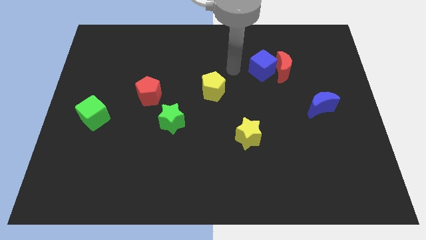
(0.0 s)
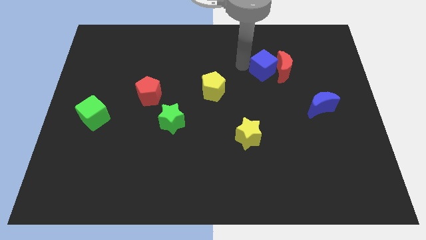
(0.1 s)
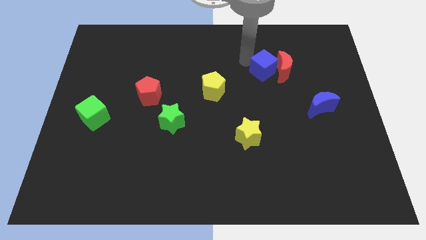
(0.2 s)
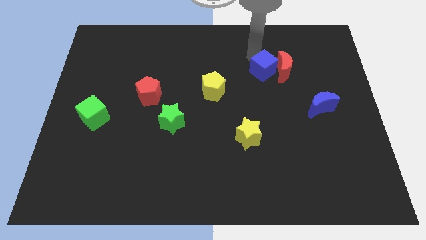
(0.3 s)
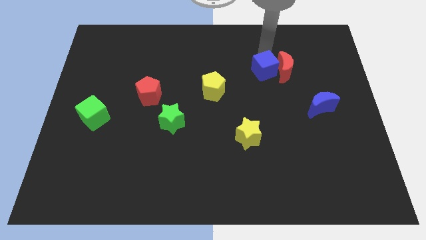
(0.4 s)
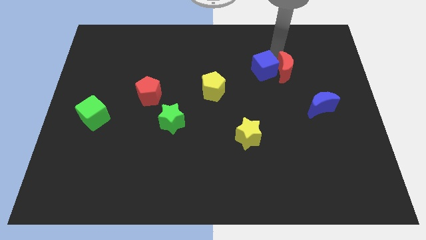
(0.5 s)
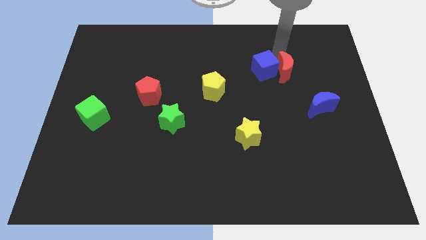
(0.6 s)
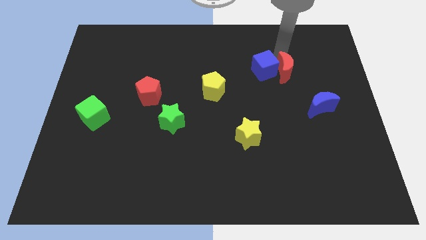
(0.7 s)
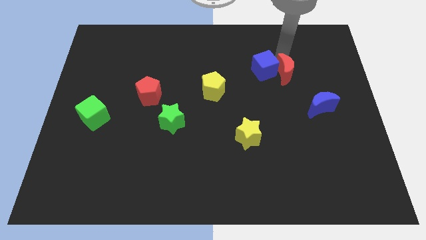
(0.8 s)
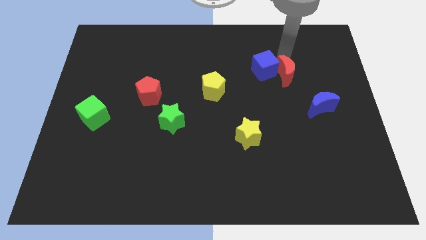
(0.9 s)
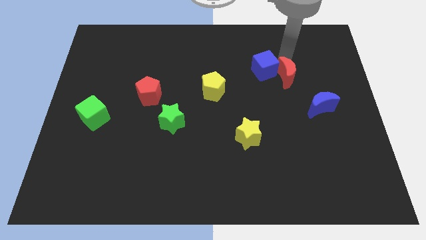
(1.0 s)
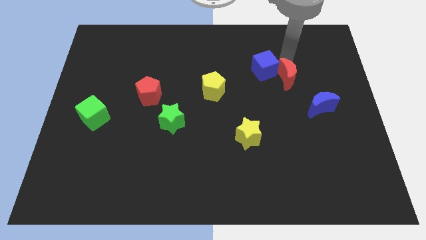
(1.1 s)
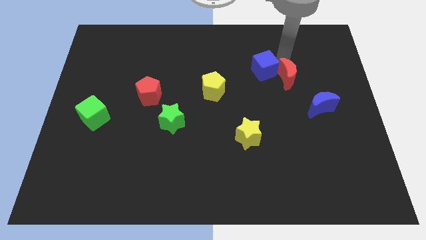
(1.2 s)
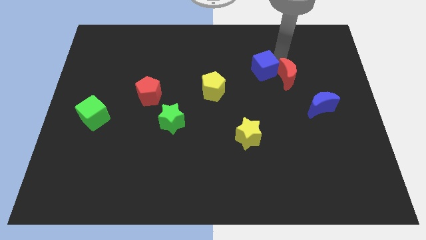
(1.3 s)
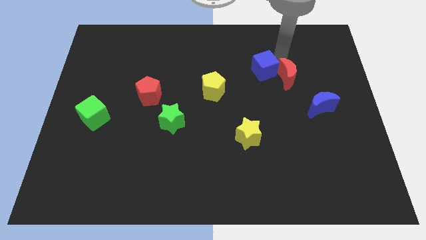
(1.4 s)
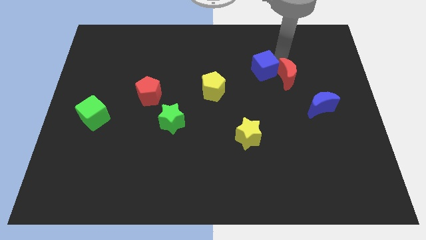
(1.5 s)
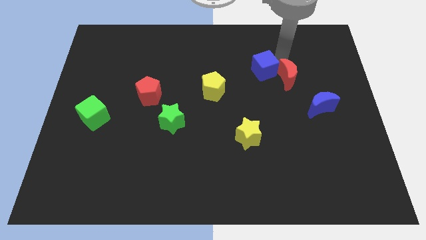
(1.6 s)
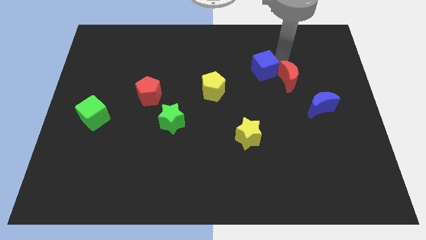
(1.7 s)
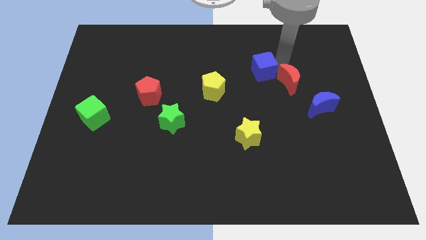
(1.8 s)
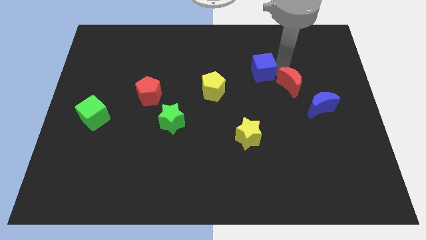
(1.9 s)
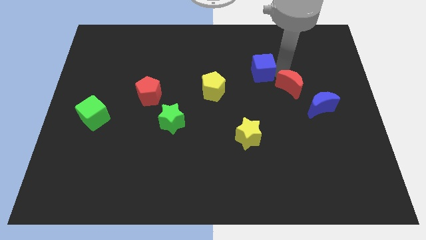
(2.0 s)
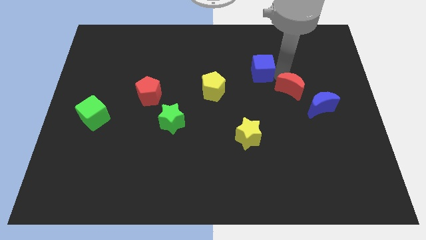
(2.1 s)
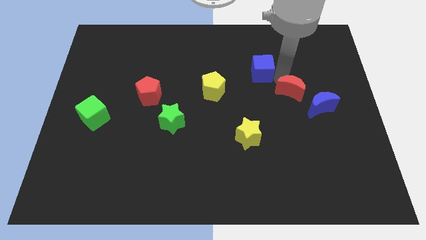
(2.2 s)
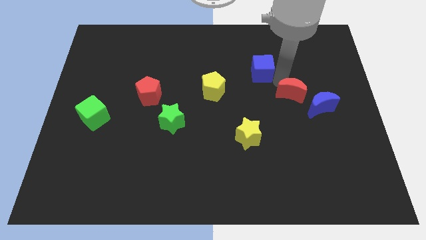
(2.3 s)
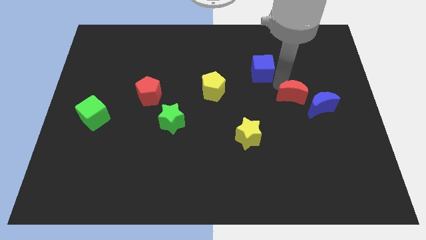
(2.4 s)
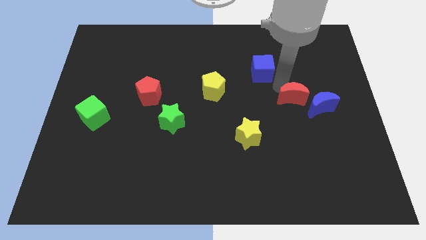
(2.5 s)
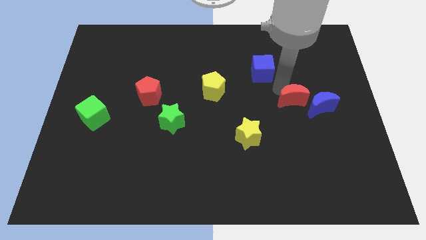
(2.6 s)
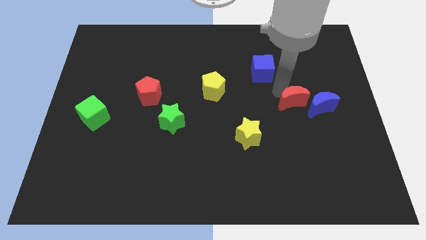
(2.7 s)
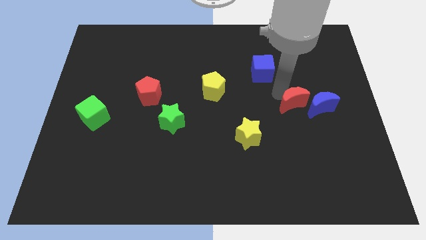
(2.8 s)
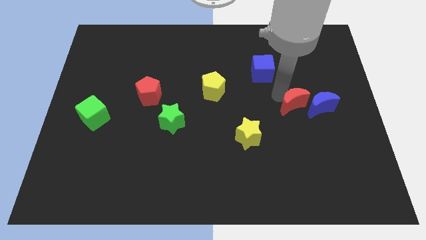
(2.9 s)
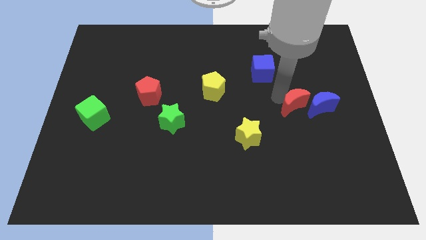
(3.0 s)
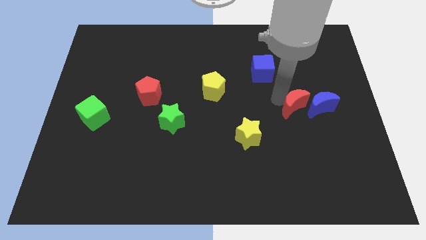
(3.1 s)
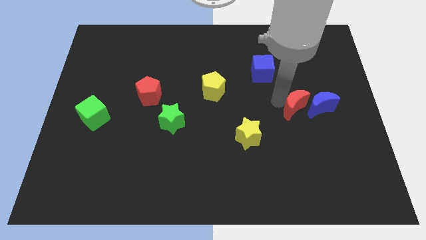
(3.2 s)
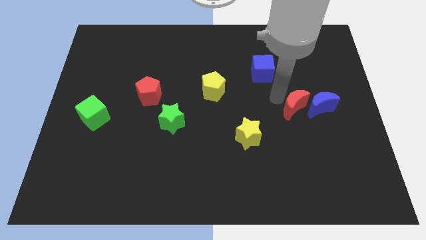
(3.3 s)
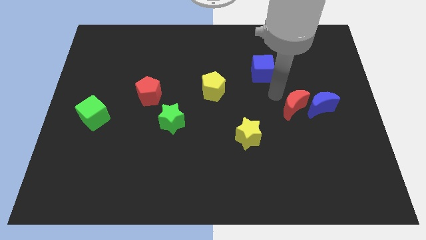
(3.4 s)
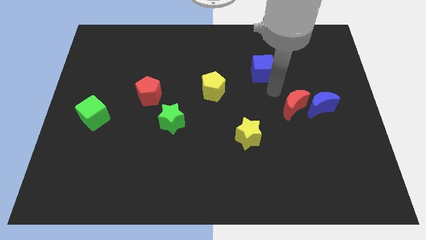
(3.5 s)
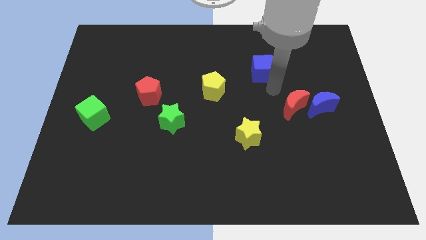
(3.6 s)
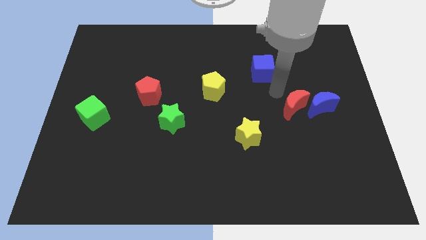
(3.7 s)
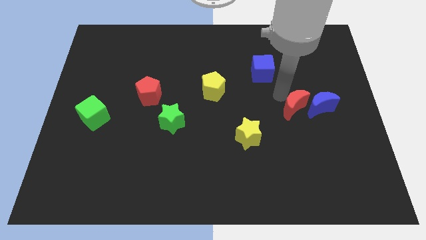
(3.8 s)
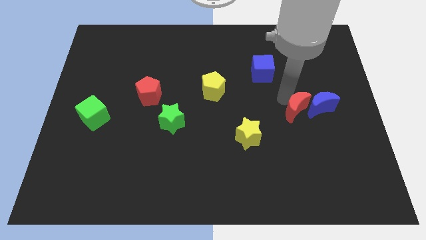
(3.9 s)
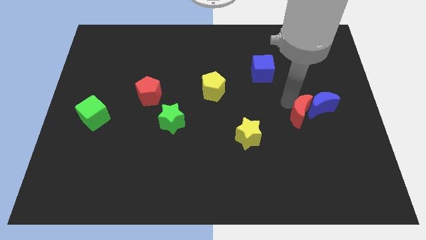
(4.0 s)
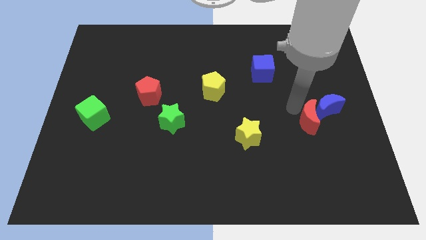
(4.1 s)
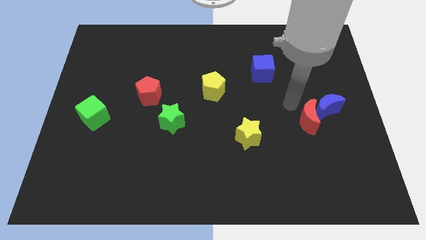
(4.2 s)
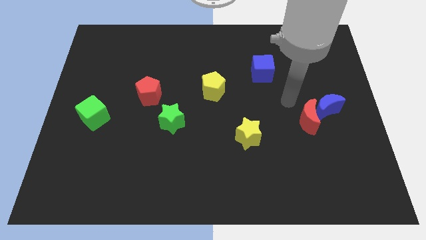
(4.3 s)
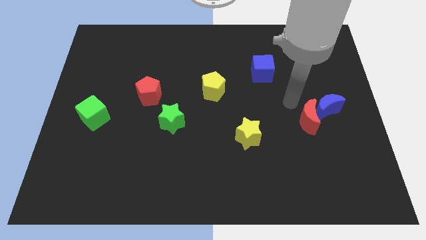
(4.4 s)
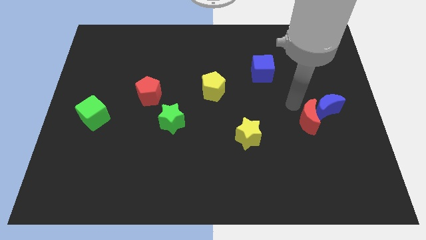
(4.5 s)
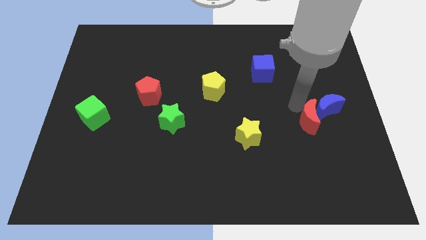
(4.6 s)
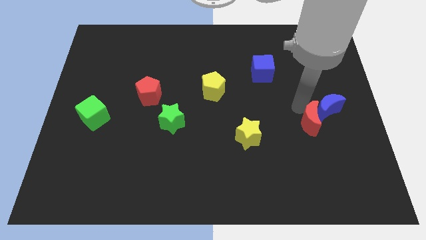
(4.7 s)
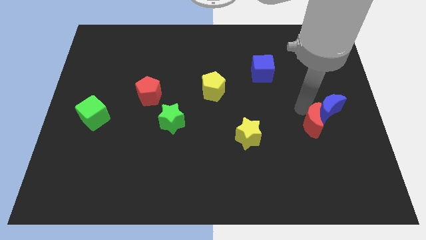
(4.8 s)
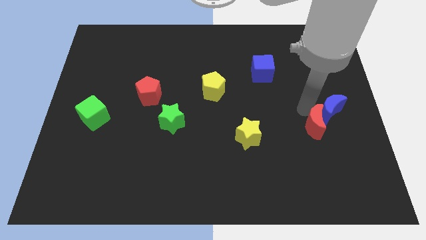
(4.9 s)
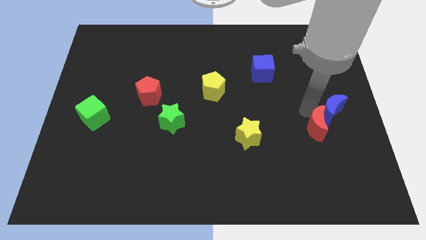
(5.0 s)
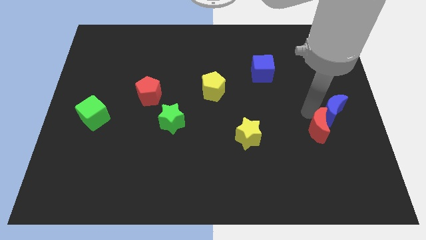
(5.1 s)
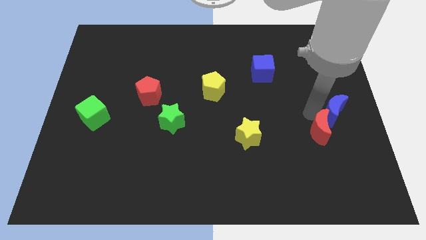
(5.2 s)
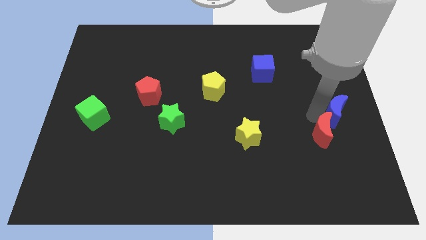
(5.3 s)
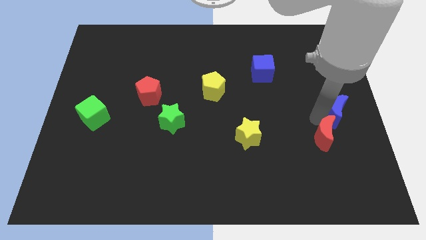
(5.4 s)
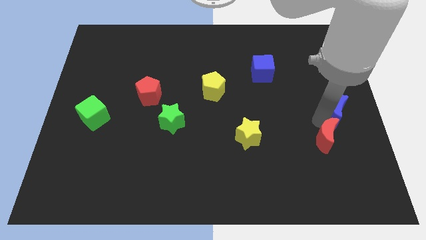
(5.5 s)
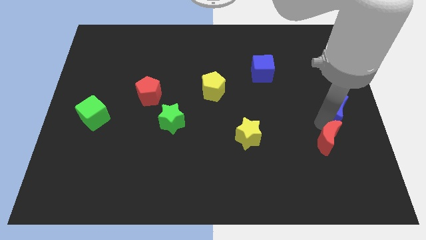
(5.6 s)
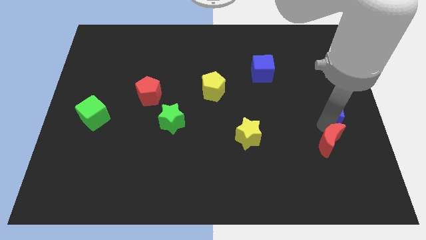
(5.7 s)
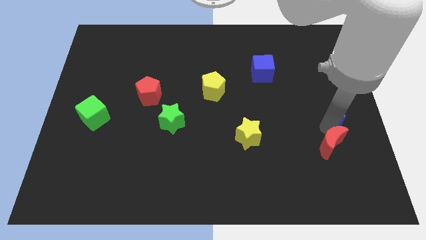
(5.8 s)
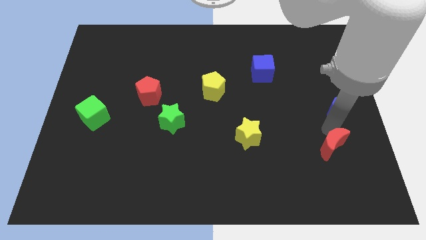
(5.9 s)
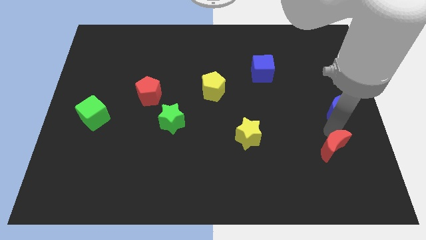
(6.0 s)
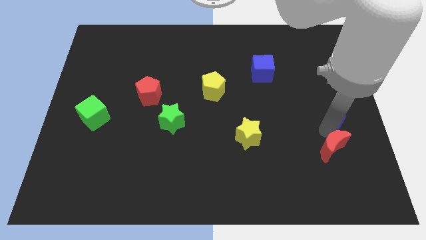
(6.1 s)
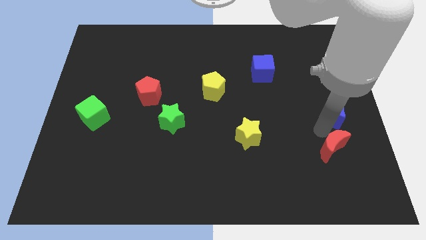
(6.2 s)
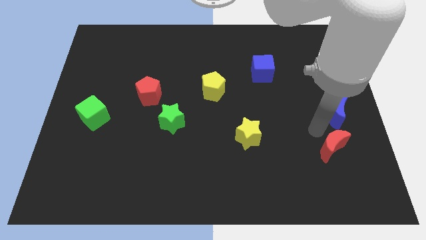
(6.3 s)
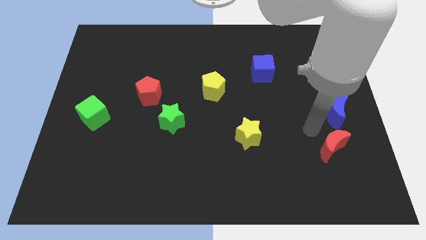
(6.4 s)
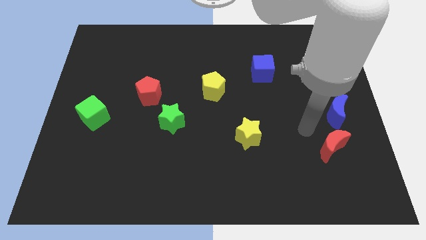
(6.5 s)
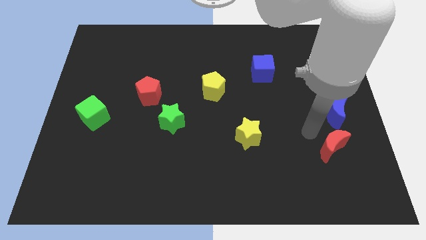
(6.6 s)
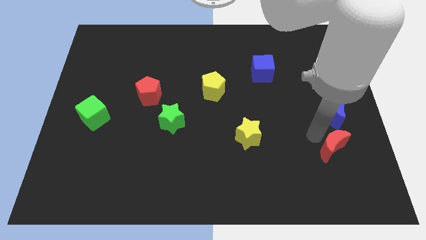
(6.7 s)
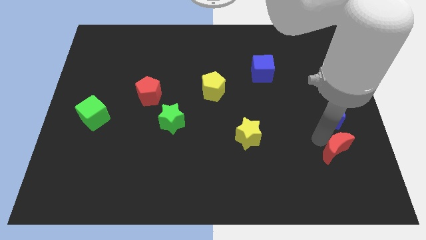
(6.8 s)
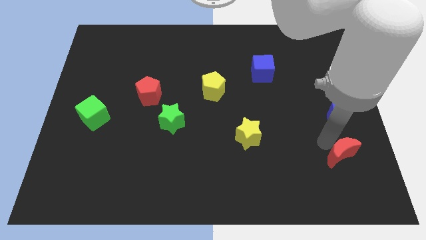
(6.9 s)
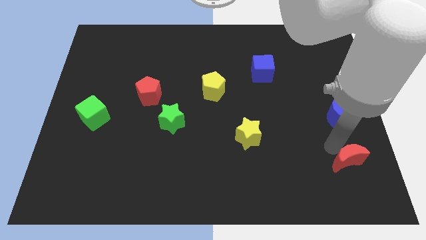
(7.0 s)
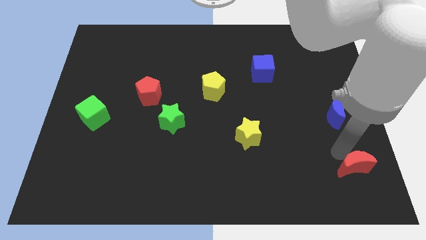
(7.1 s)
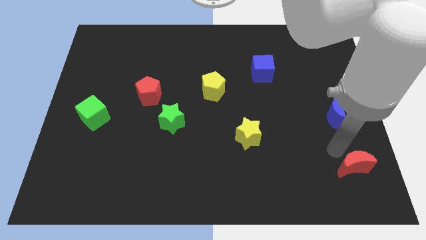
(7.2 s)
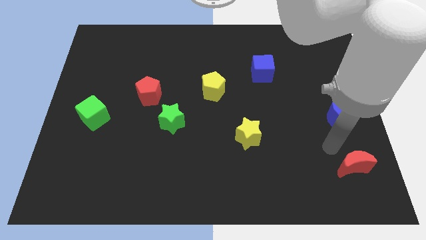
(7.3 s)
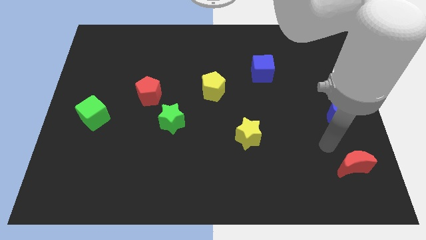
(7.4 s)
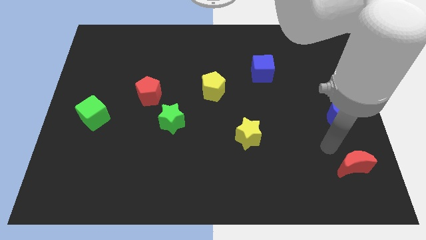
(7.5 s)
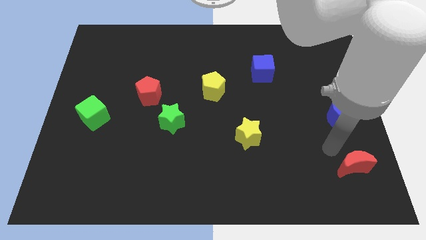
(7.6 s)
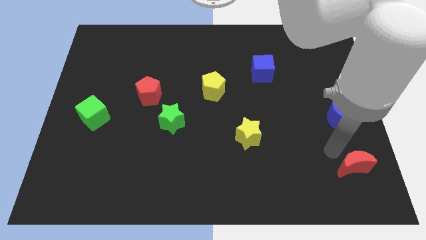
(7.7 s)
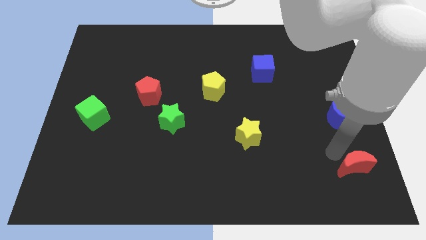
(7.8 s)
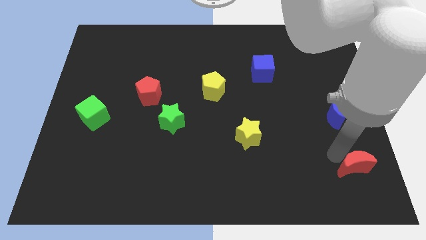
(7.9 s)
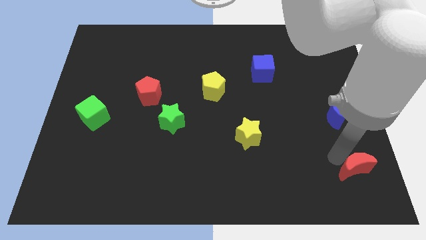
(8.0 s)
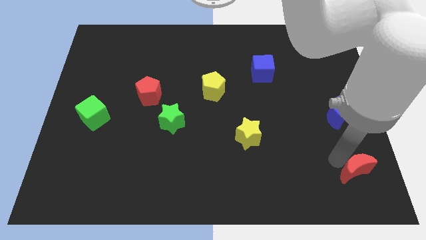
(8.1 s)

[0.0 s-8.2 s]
slide the red moon to the bottom right
